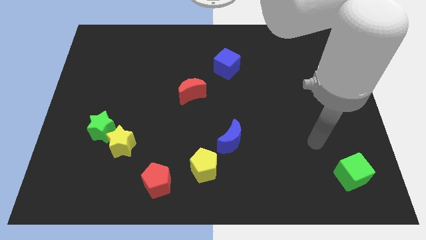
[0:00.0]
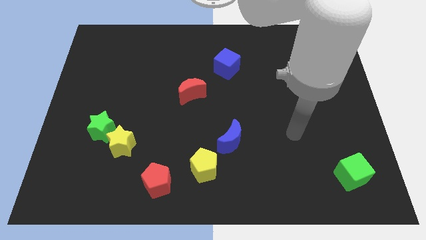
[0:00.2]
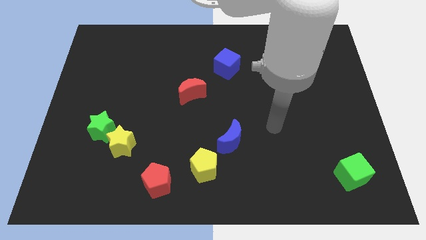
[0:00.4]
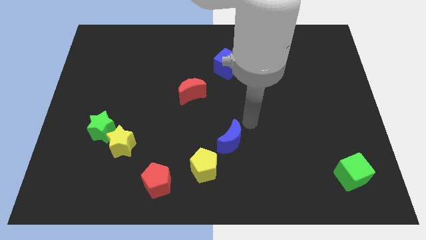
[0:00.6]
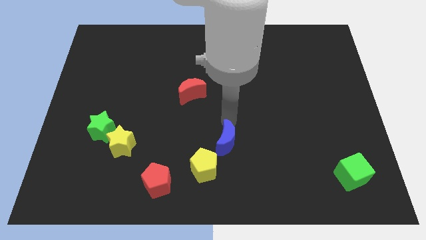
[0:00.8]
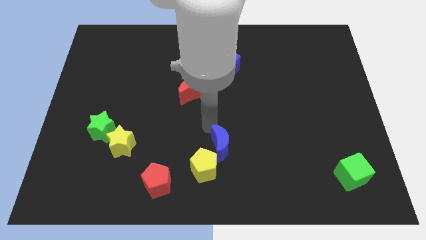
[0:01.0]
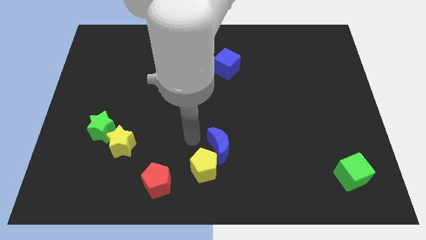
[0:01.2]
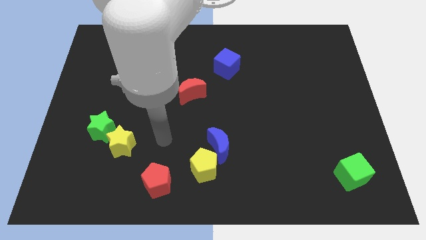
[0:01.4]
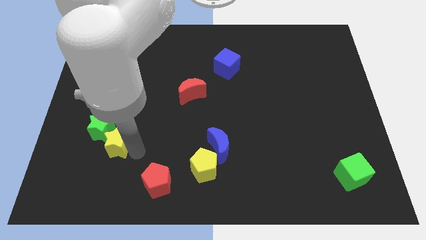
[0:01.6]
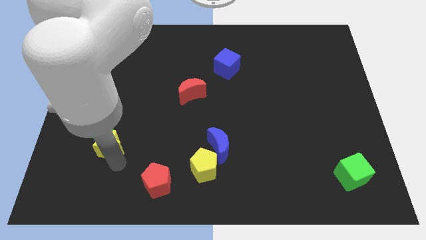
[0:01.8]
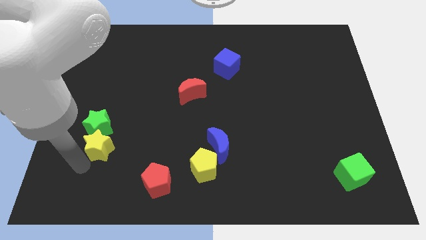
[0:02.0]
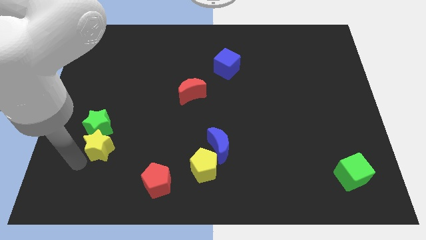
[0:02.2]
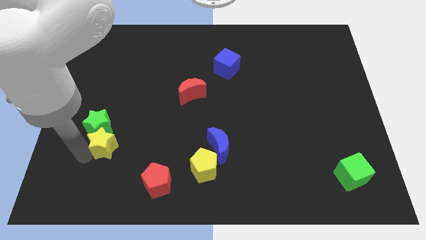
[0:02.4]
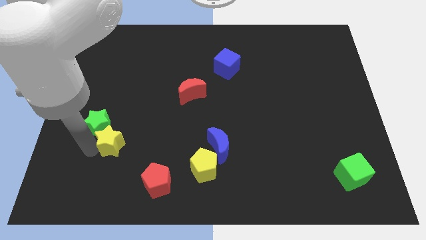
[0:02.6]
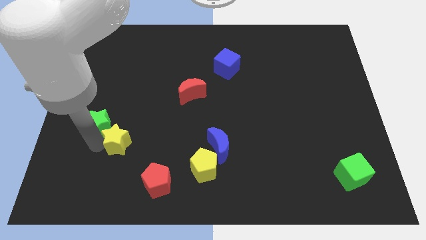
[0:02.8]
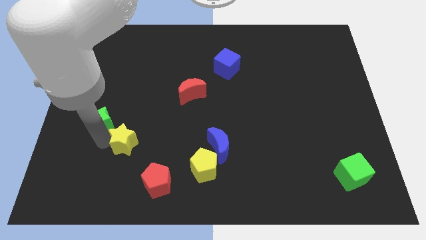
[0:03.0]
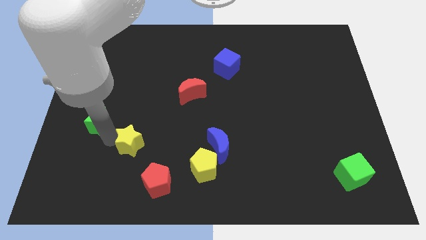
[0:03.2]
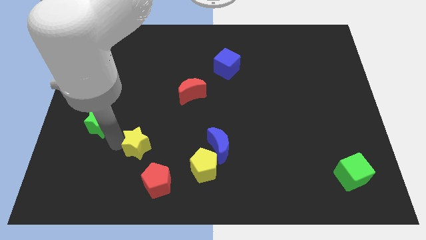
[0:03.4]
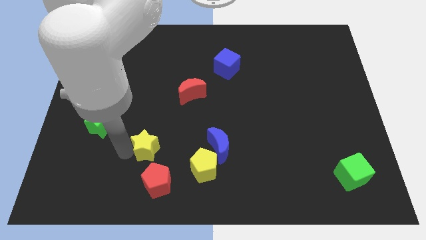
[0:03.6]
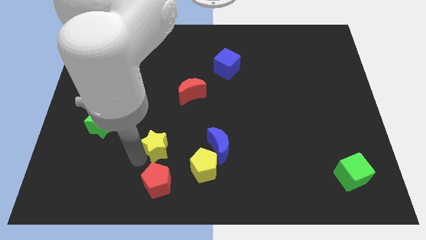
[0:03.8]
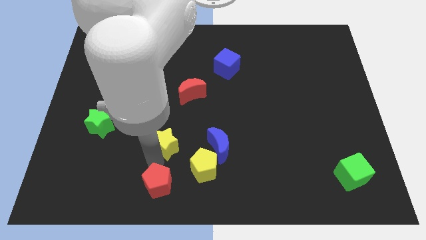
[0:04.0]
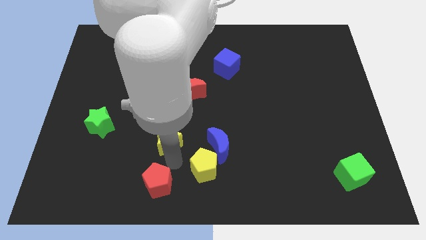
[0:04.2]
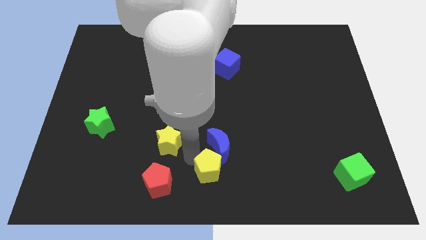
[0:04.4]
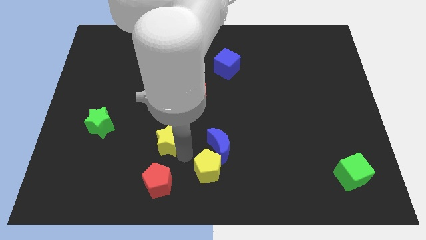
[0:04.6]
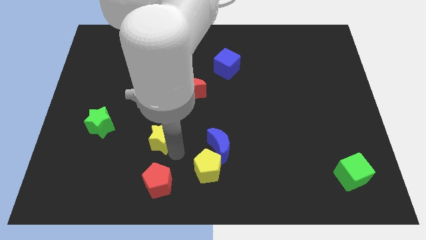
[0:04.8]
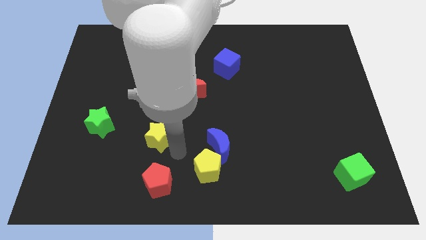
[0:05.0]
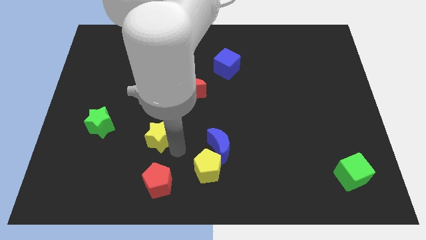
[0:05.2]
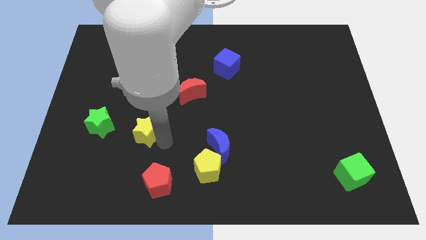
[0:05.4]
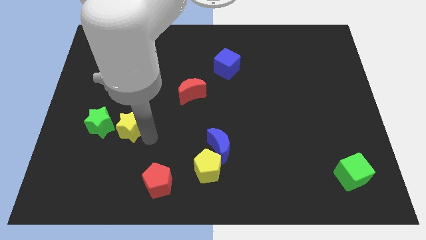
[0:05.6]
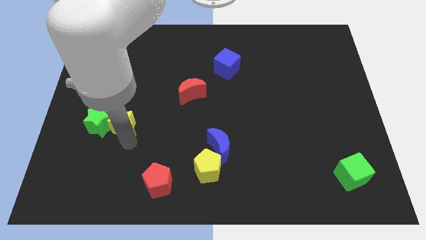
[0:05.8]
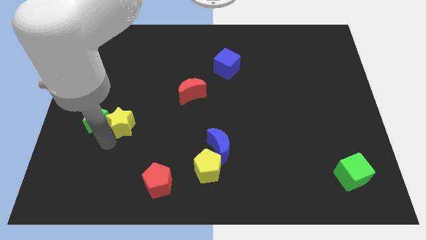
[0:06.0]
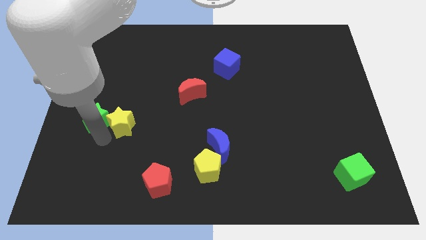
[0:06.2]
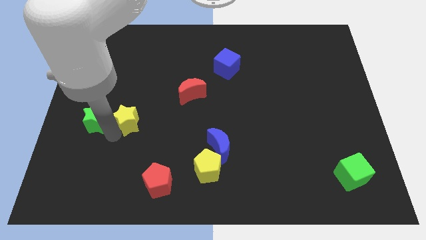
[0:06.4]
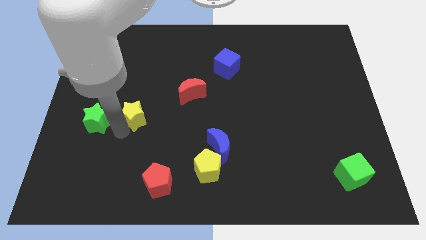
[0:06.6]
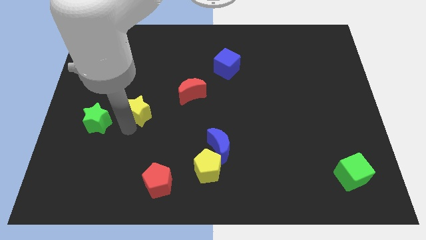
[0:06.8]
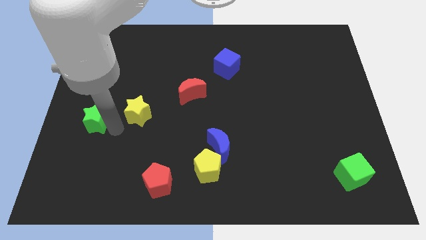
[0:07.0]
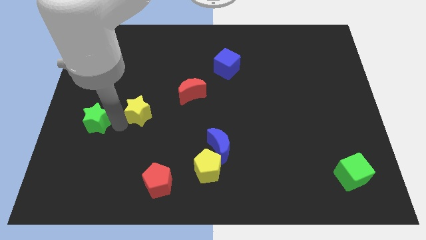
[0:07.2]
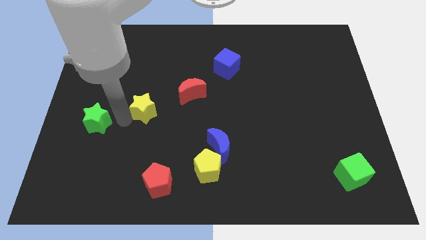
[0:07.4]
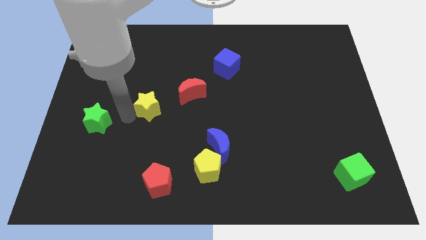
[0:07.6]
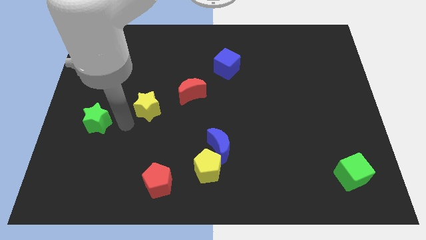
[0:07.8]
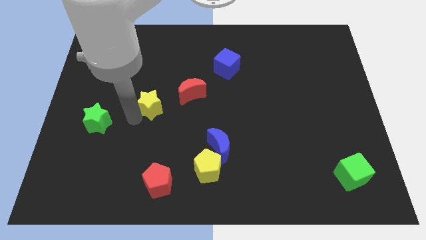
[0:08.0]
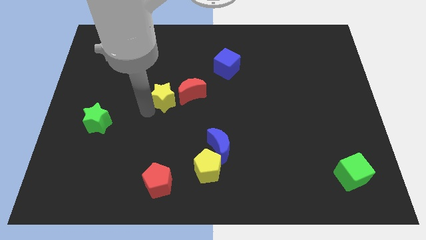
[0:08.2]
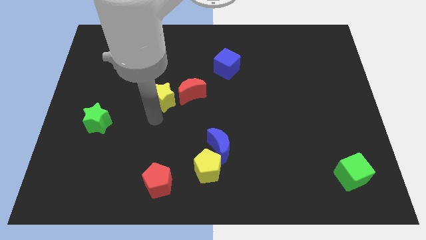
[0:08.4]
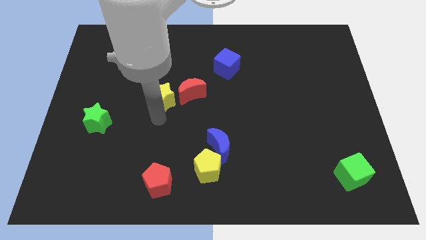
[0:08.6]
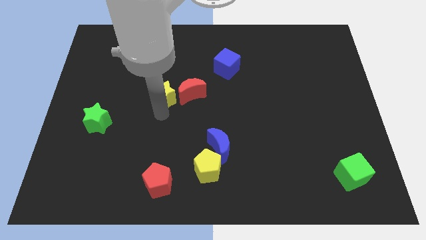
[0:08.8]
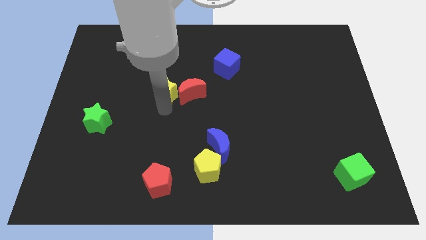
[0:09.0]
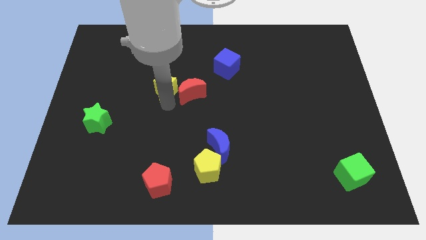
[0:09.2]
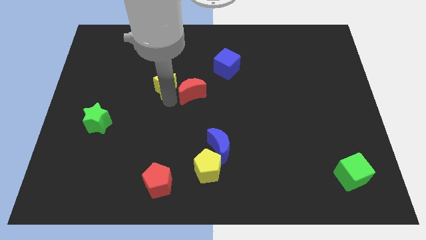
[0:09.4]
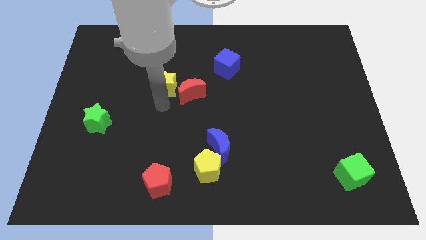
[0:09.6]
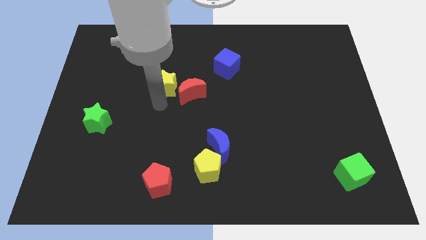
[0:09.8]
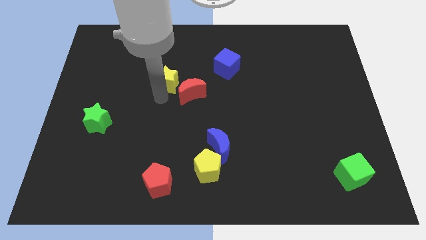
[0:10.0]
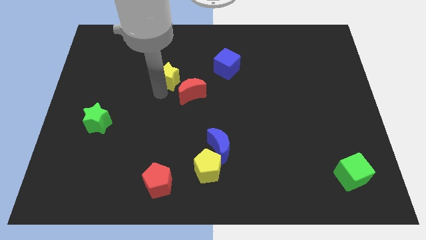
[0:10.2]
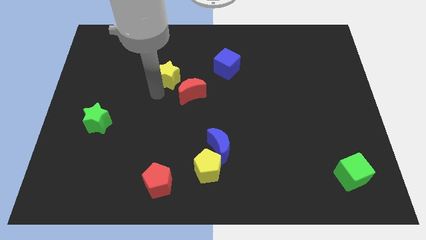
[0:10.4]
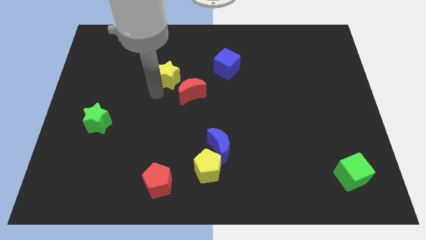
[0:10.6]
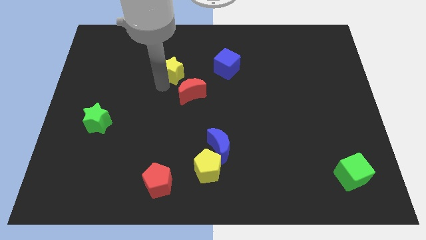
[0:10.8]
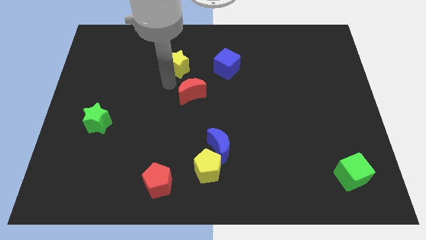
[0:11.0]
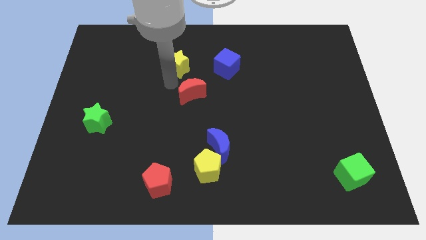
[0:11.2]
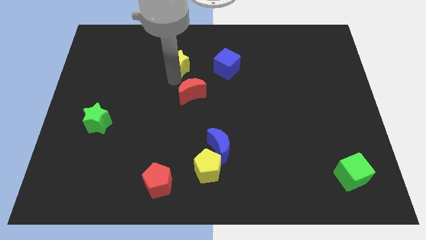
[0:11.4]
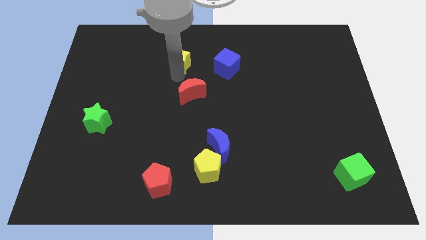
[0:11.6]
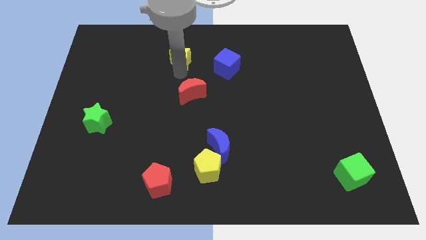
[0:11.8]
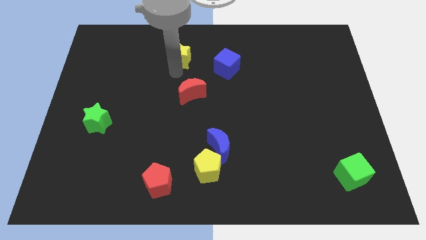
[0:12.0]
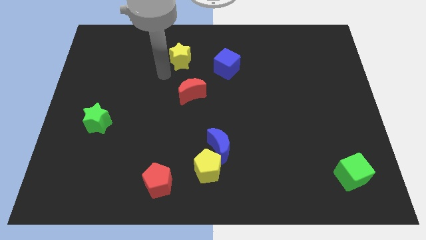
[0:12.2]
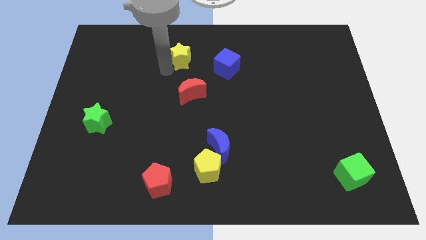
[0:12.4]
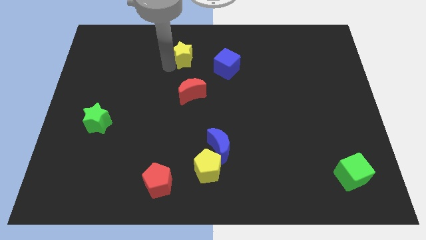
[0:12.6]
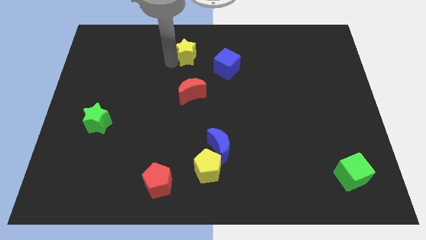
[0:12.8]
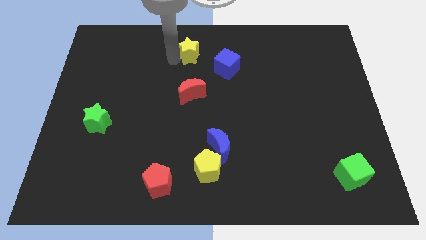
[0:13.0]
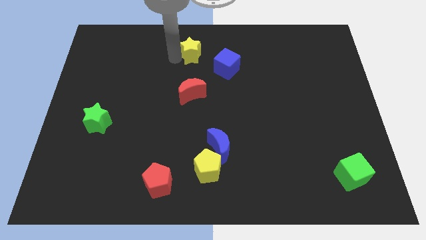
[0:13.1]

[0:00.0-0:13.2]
push the yellow star to the top side

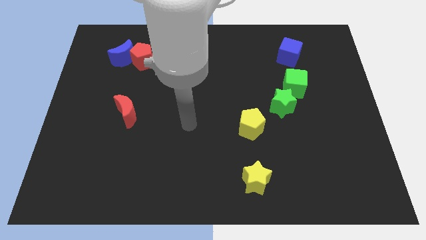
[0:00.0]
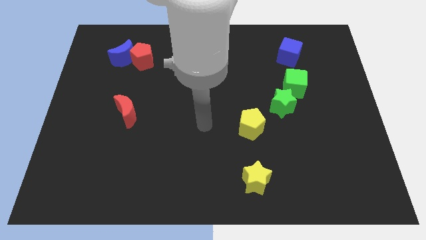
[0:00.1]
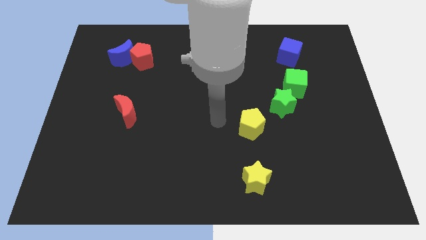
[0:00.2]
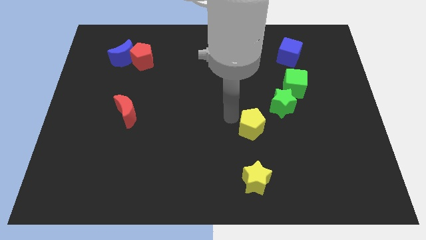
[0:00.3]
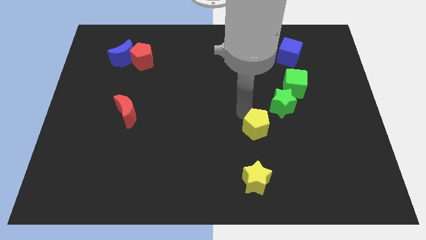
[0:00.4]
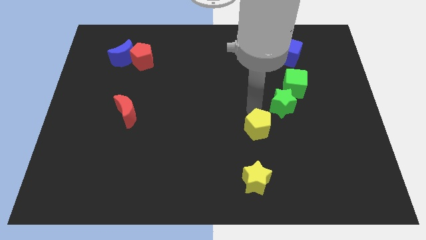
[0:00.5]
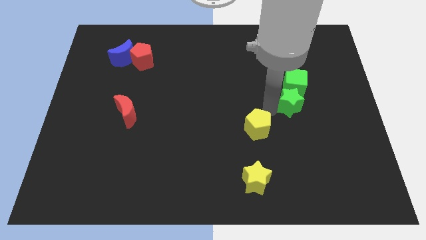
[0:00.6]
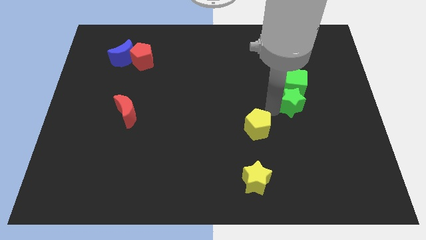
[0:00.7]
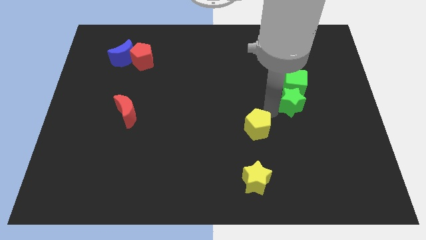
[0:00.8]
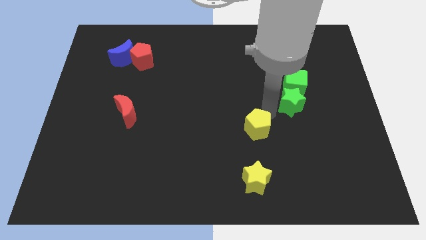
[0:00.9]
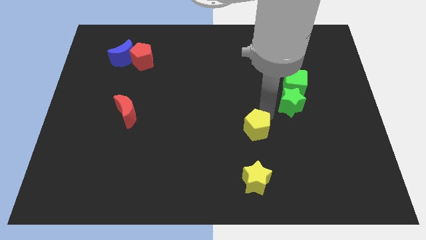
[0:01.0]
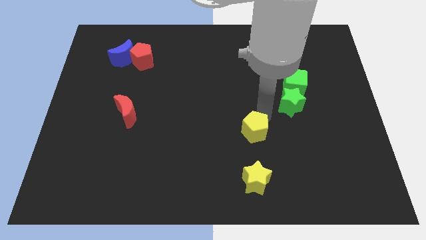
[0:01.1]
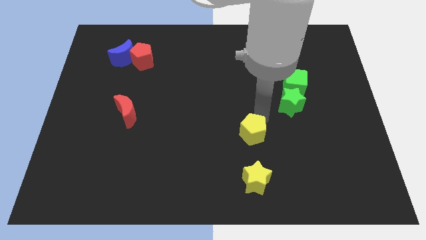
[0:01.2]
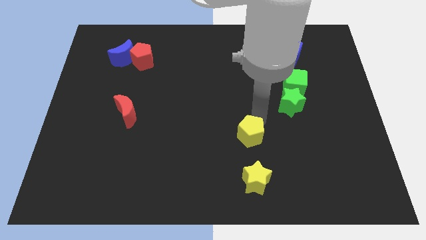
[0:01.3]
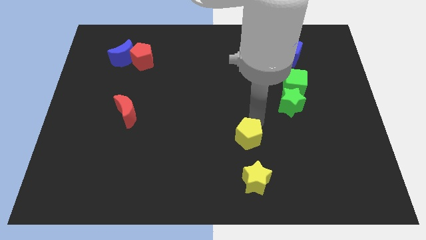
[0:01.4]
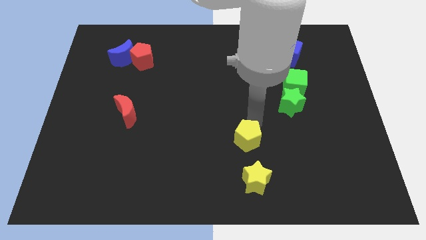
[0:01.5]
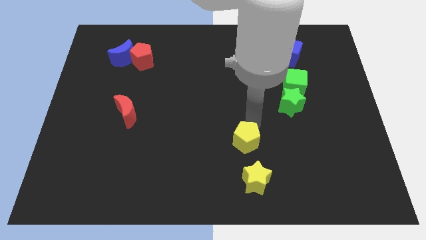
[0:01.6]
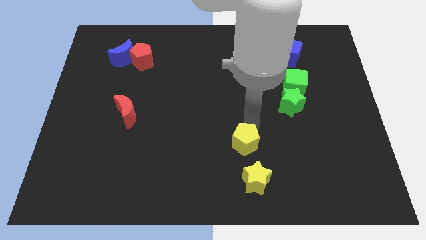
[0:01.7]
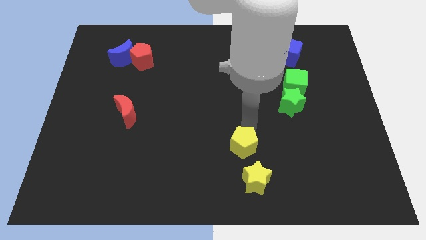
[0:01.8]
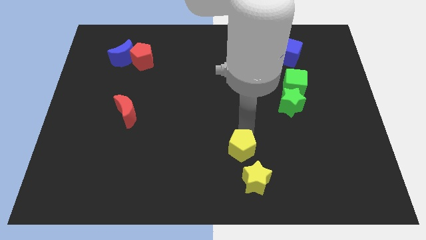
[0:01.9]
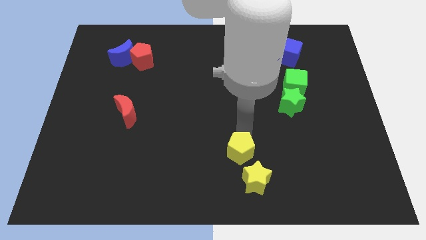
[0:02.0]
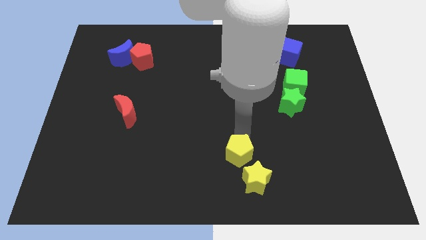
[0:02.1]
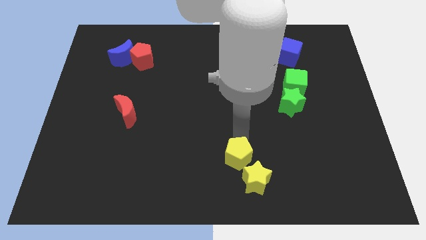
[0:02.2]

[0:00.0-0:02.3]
push the yellow pentagon to the bottom
